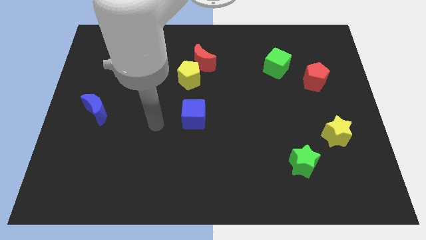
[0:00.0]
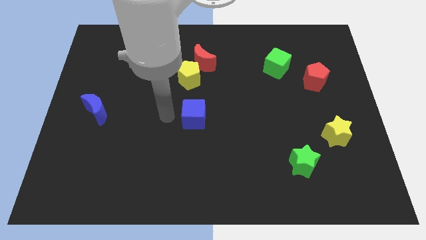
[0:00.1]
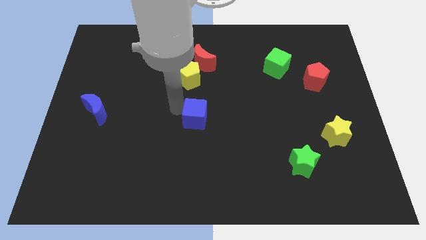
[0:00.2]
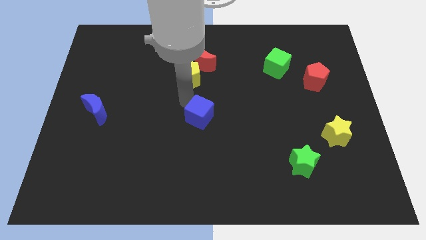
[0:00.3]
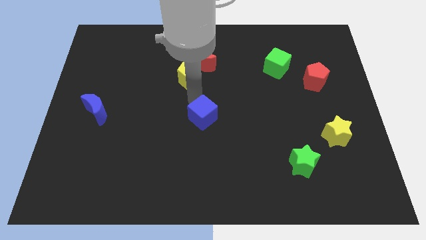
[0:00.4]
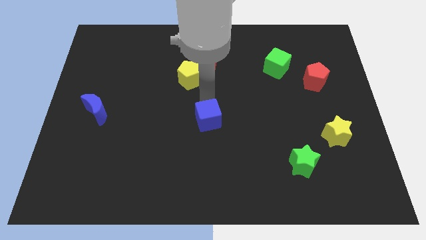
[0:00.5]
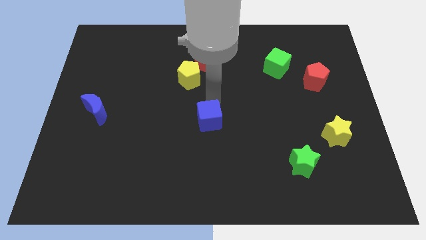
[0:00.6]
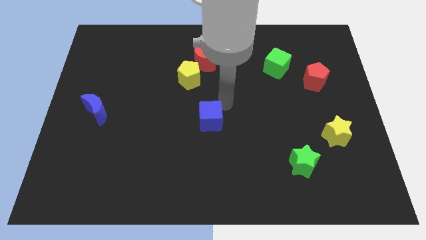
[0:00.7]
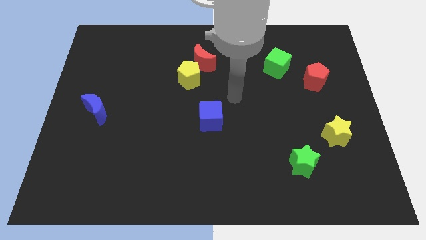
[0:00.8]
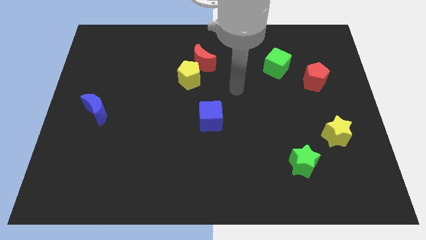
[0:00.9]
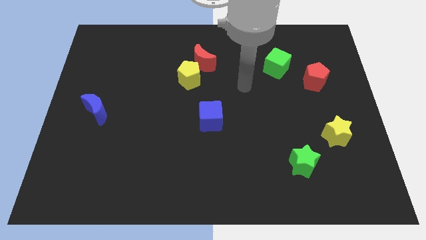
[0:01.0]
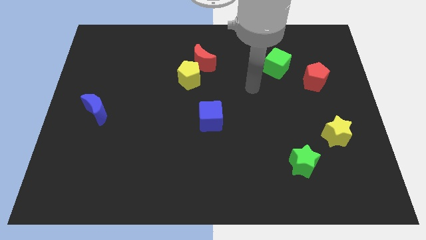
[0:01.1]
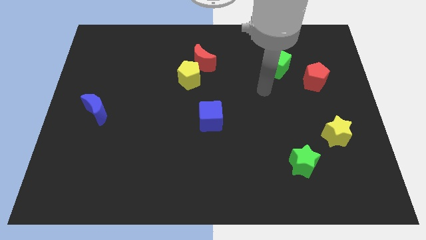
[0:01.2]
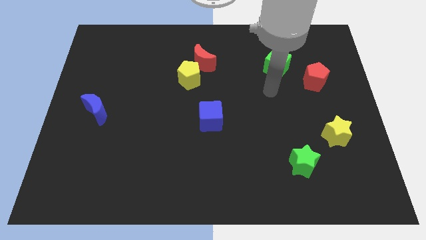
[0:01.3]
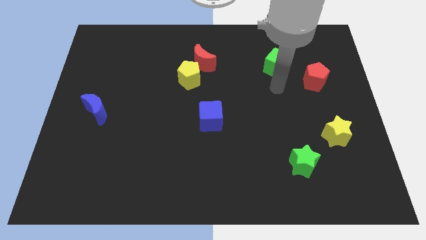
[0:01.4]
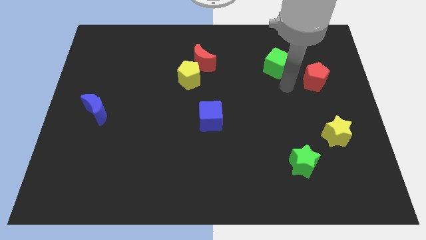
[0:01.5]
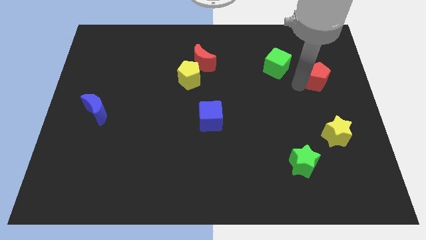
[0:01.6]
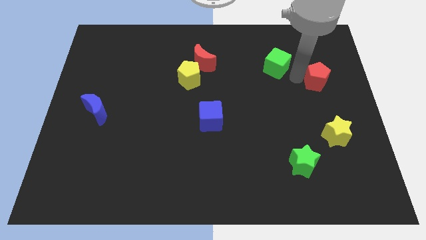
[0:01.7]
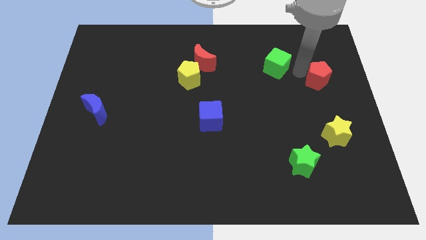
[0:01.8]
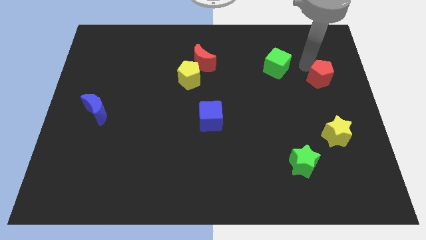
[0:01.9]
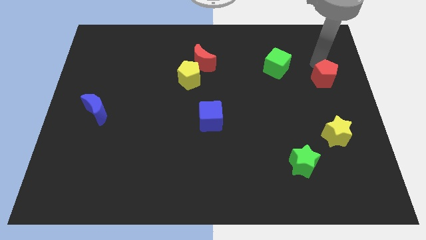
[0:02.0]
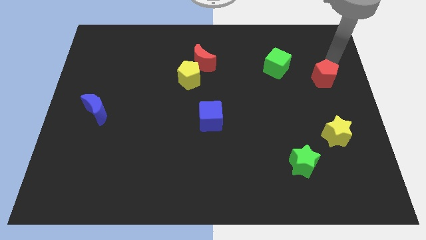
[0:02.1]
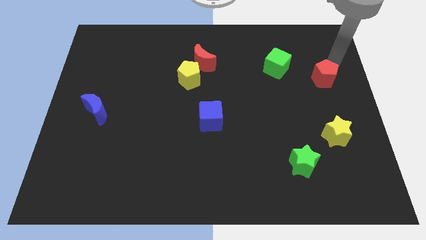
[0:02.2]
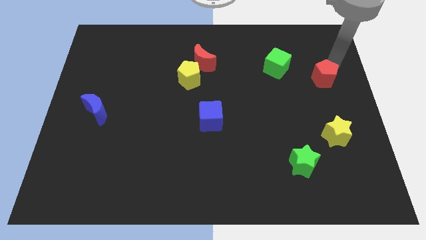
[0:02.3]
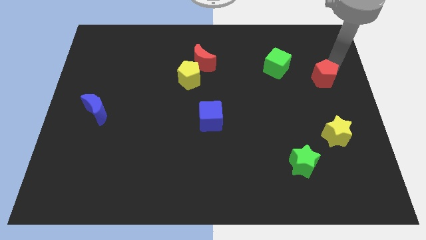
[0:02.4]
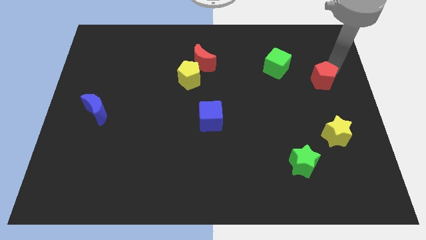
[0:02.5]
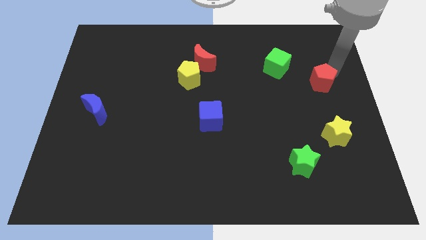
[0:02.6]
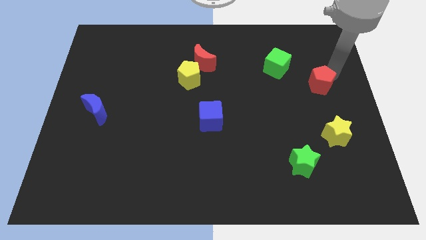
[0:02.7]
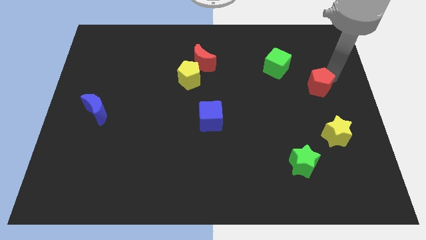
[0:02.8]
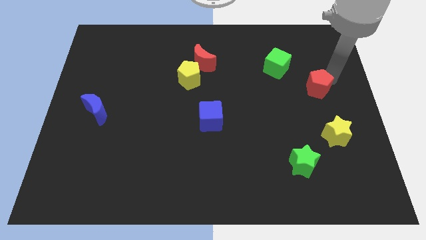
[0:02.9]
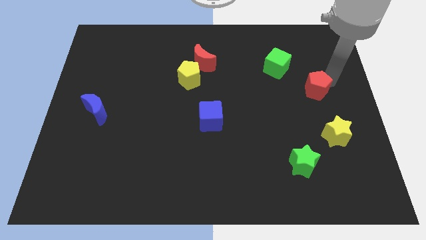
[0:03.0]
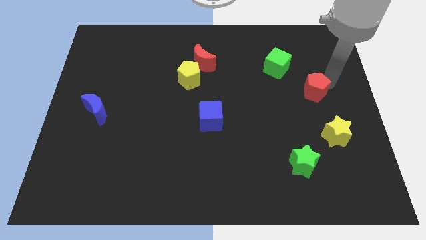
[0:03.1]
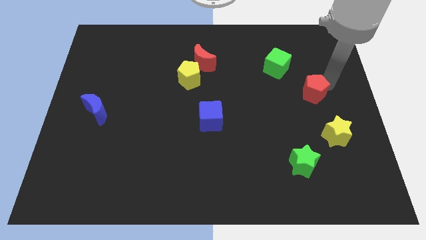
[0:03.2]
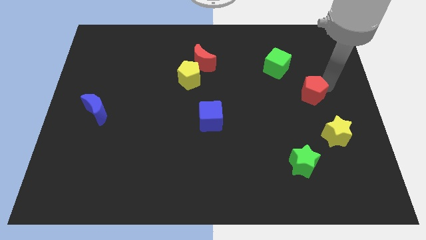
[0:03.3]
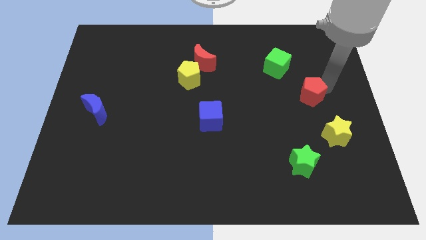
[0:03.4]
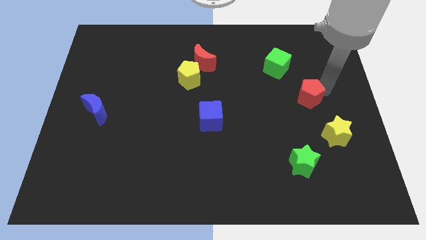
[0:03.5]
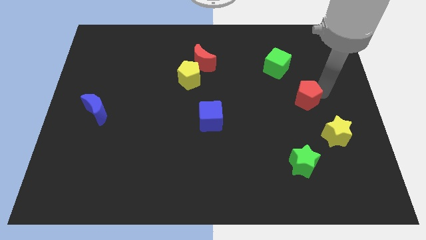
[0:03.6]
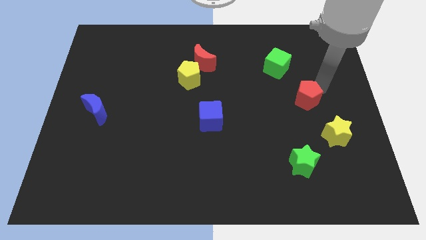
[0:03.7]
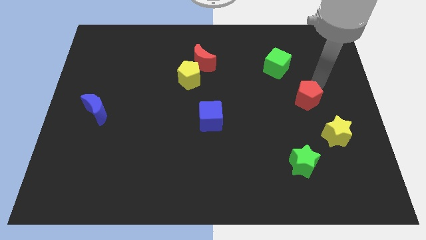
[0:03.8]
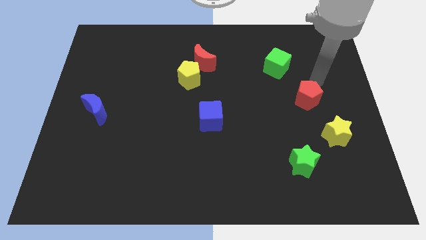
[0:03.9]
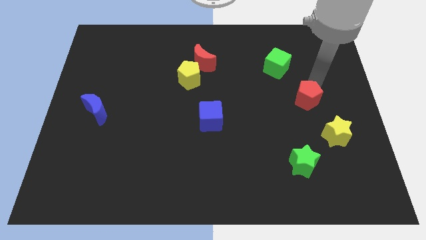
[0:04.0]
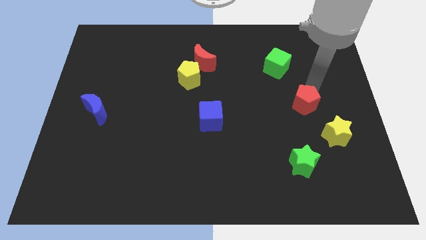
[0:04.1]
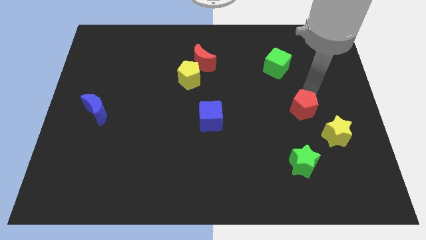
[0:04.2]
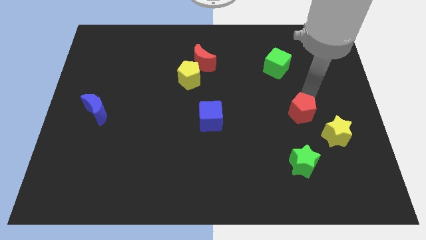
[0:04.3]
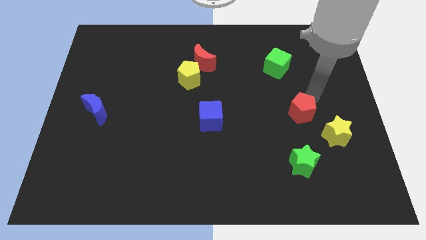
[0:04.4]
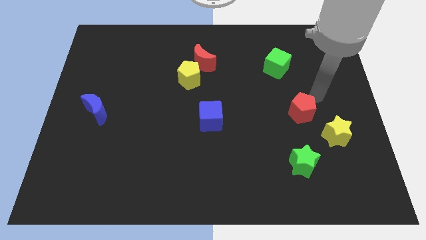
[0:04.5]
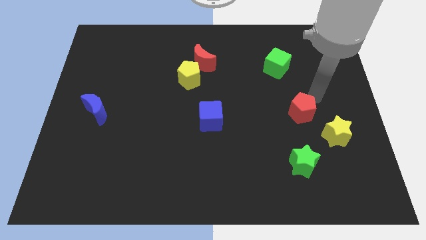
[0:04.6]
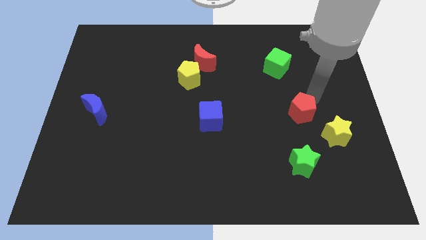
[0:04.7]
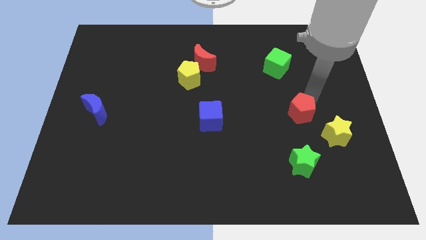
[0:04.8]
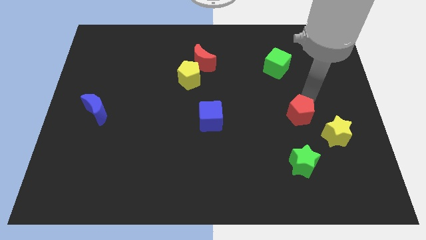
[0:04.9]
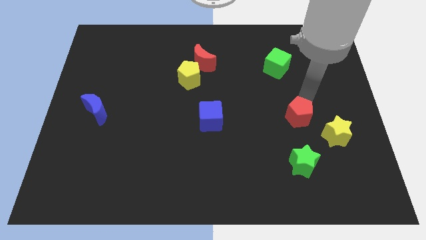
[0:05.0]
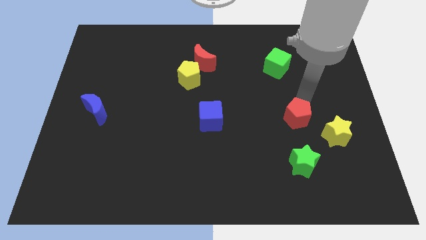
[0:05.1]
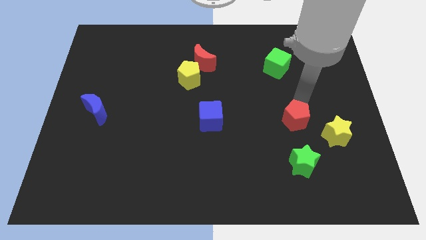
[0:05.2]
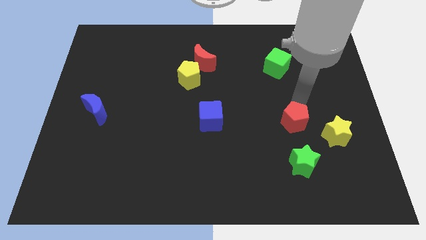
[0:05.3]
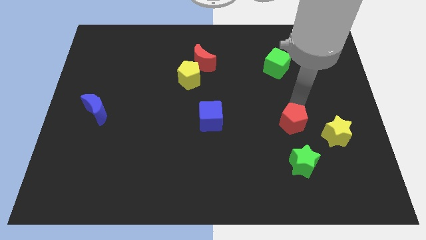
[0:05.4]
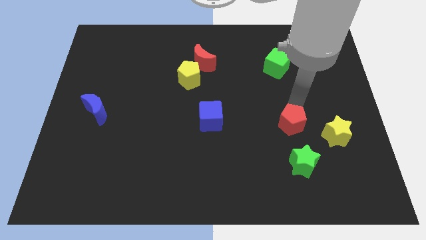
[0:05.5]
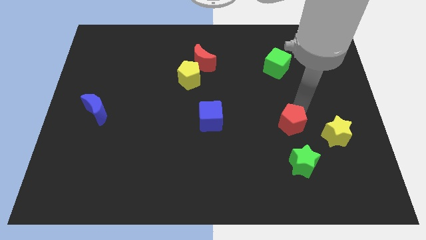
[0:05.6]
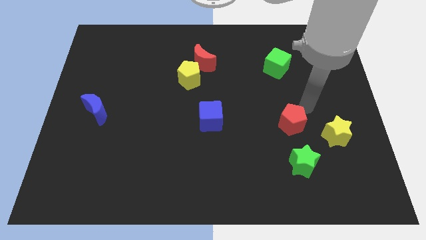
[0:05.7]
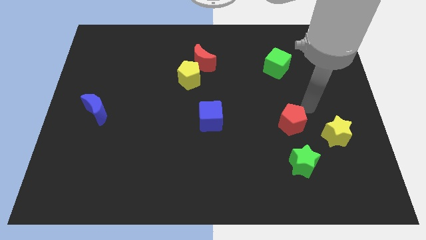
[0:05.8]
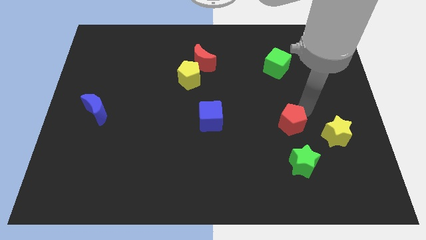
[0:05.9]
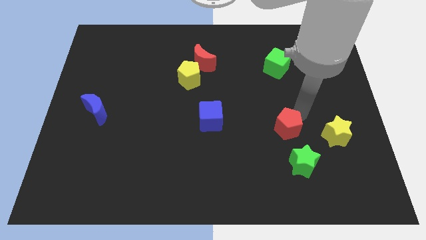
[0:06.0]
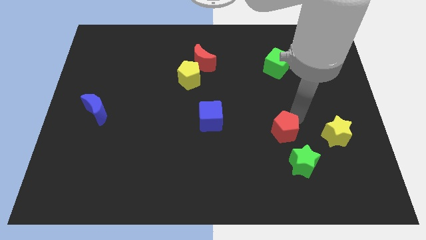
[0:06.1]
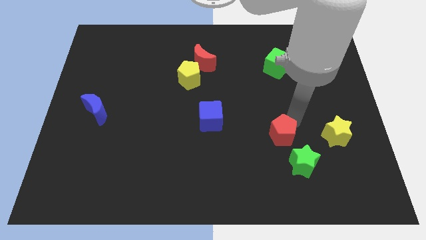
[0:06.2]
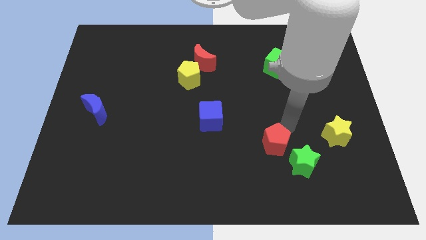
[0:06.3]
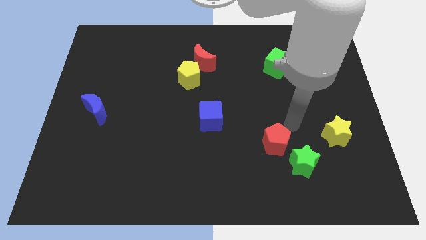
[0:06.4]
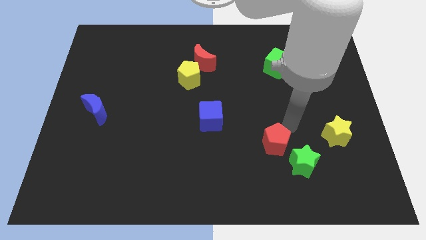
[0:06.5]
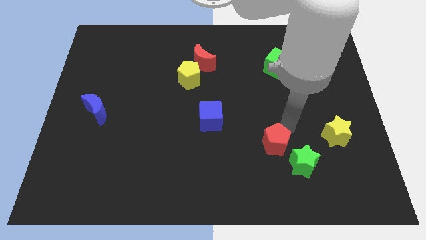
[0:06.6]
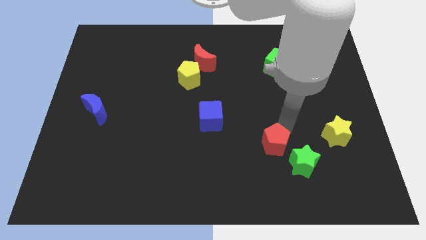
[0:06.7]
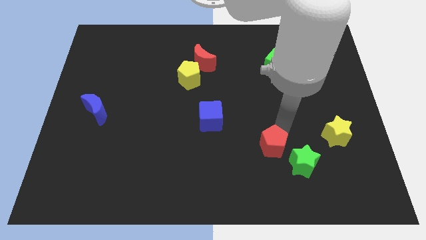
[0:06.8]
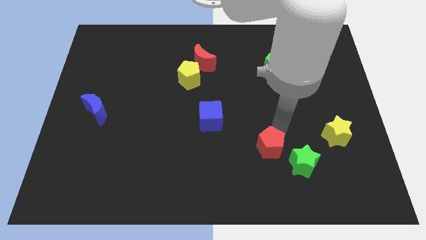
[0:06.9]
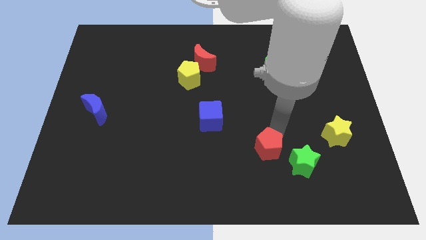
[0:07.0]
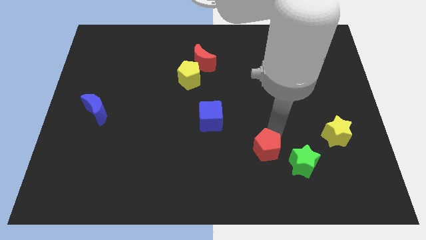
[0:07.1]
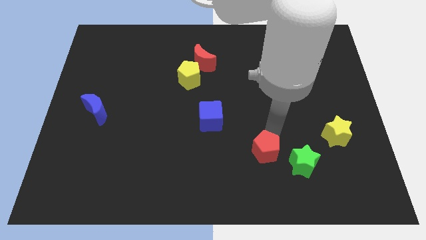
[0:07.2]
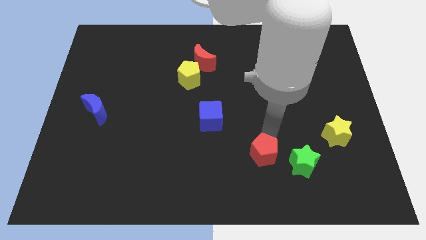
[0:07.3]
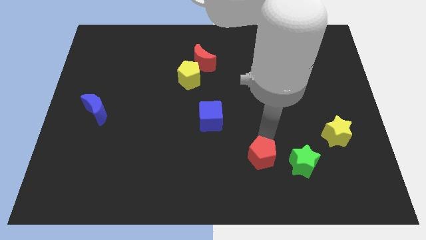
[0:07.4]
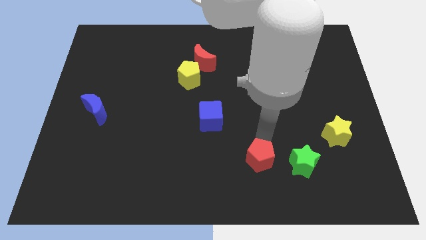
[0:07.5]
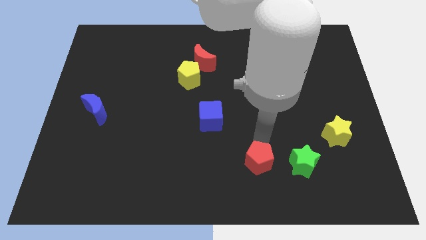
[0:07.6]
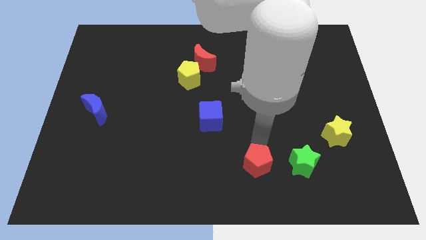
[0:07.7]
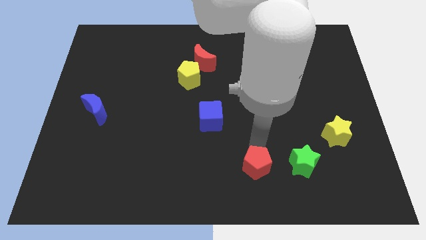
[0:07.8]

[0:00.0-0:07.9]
move the red pentagon to the bottom side
